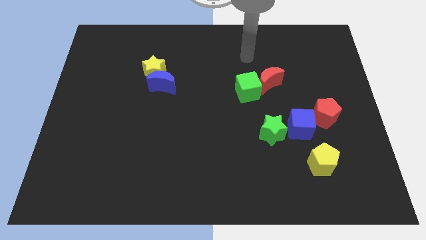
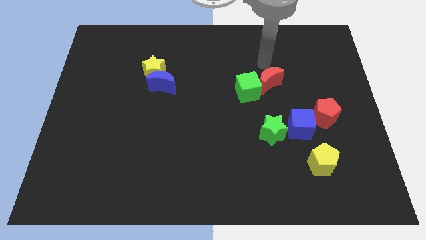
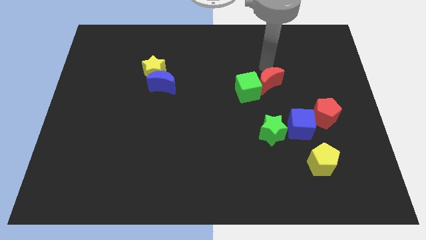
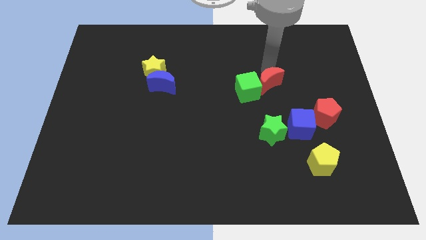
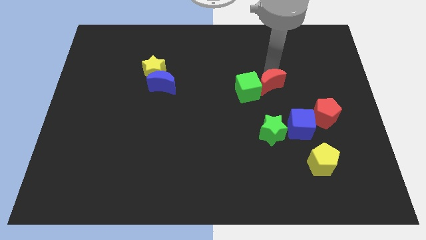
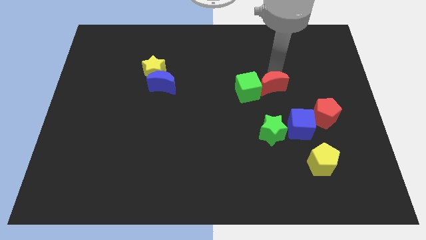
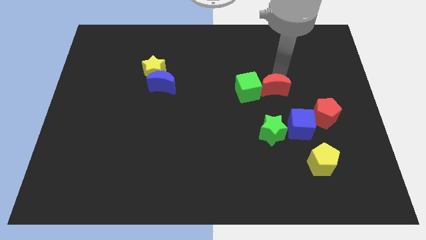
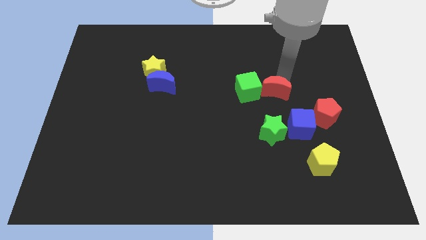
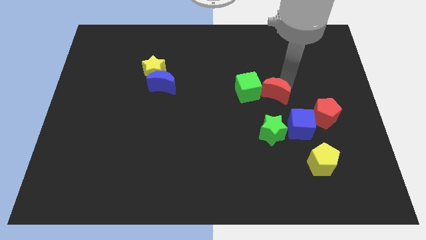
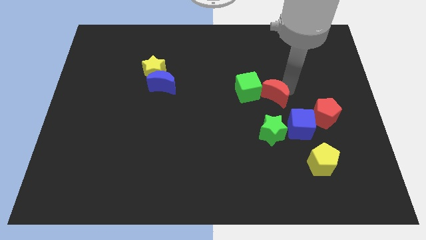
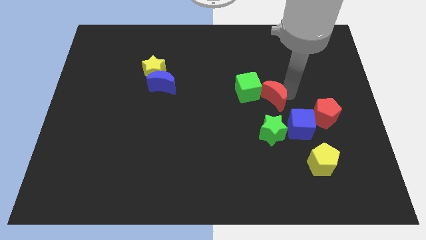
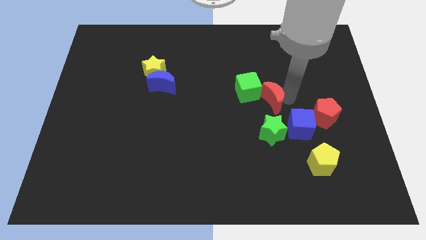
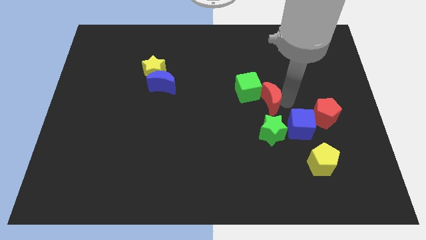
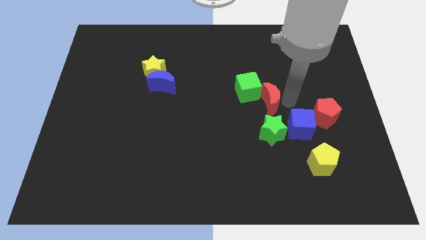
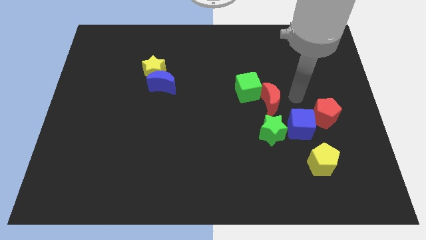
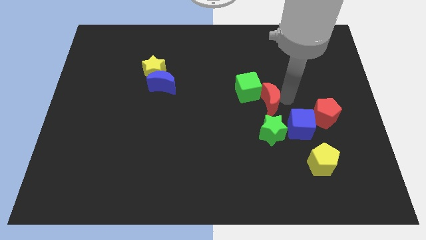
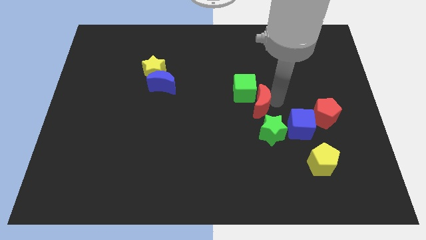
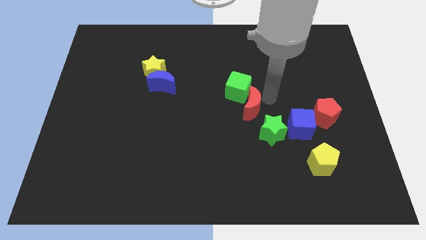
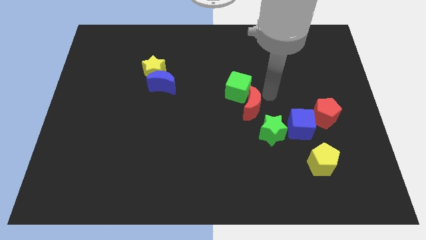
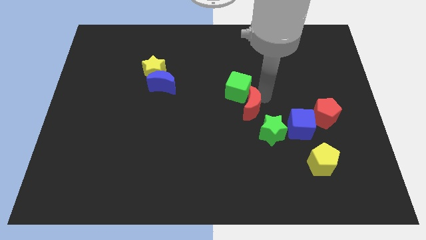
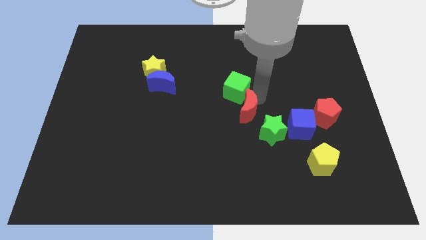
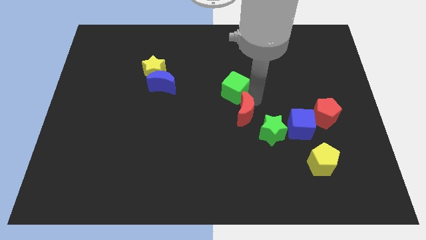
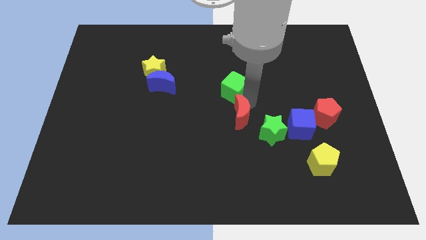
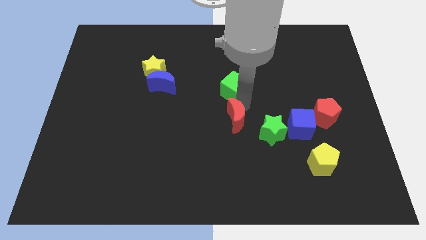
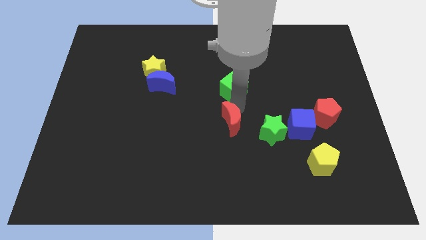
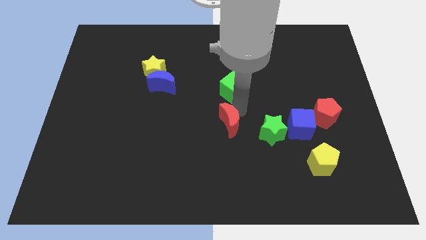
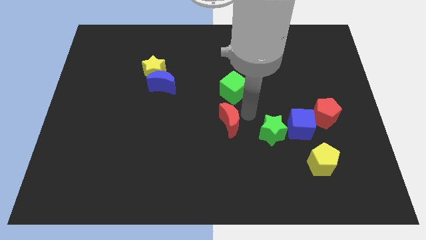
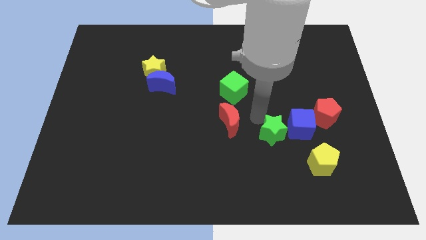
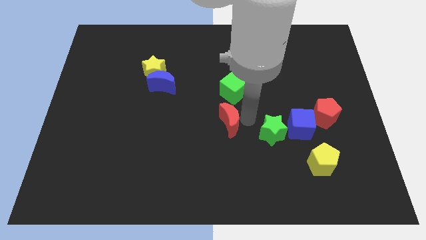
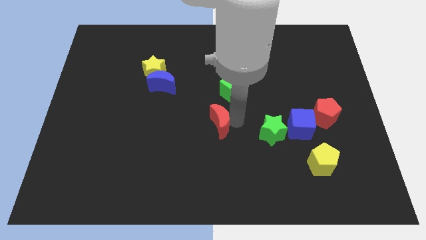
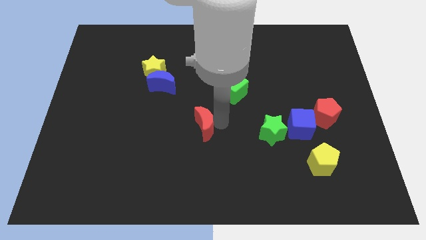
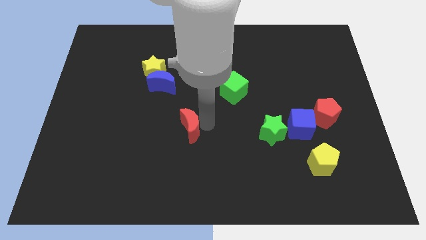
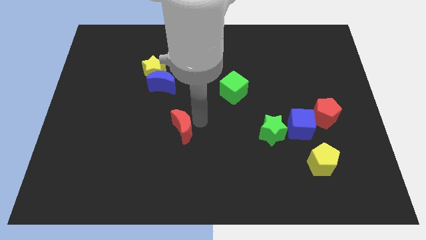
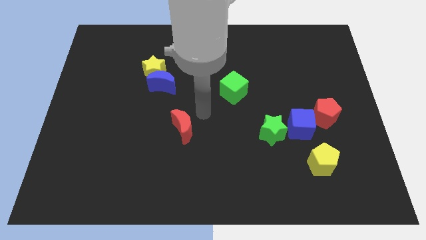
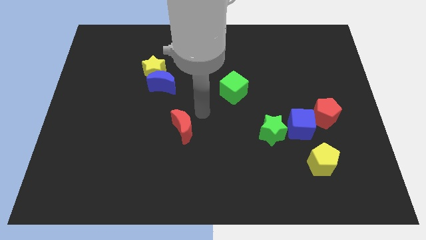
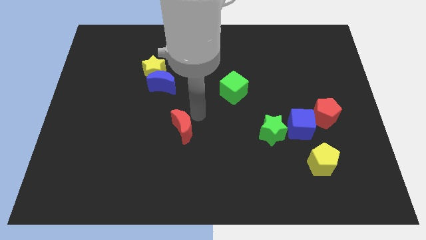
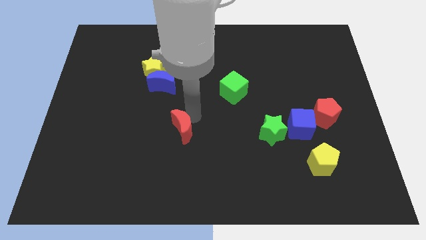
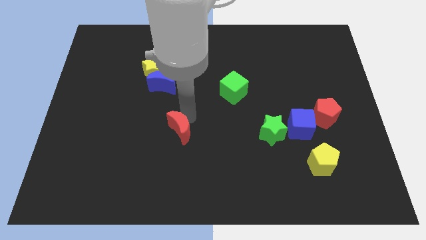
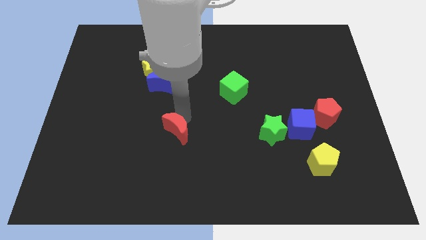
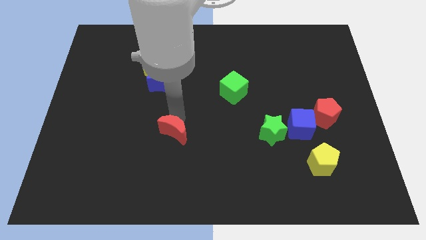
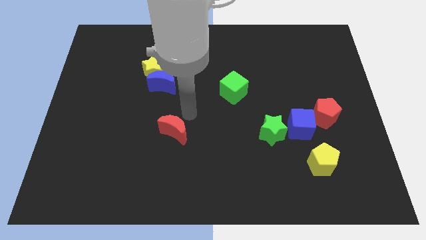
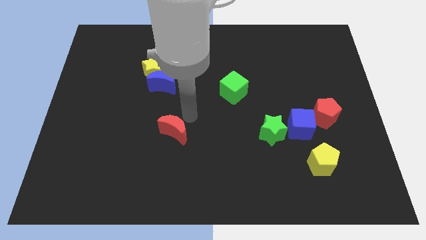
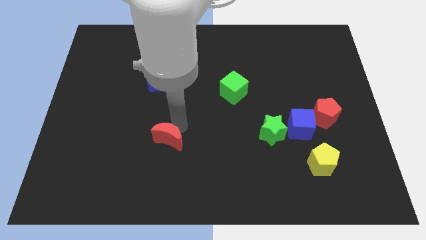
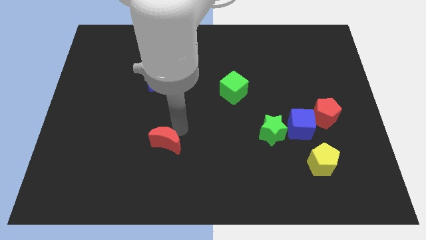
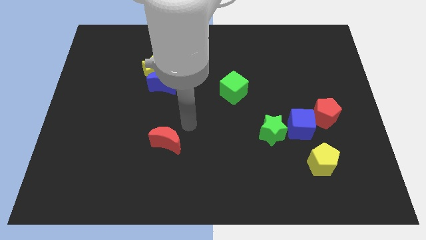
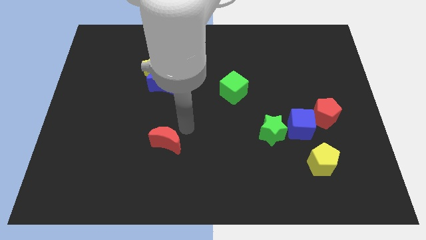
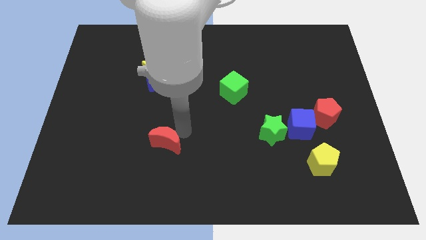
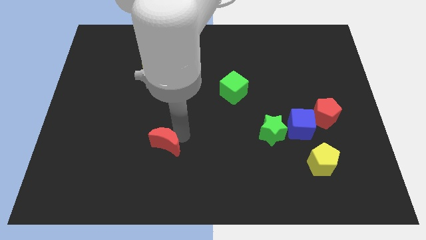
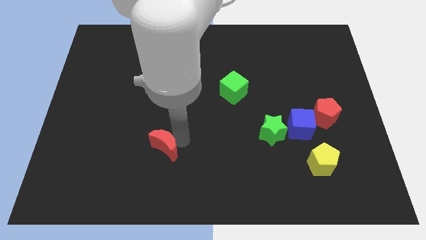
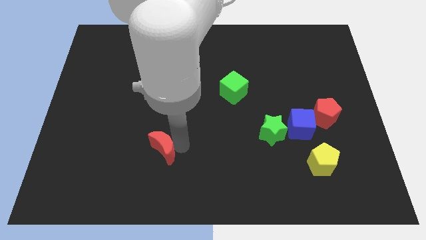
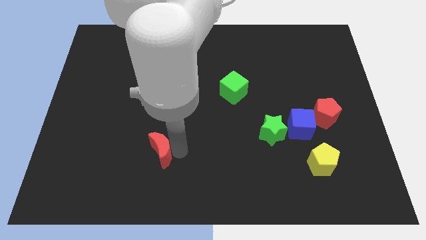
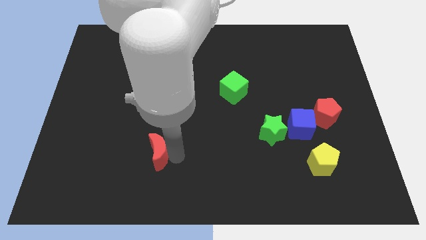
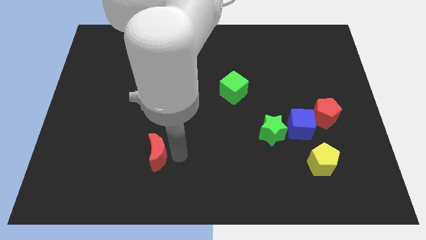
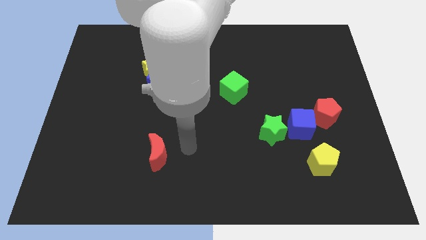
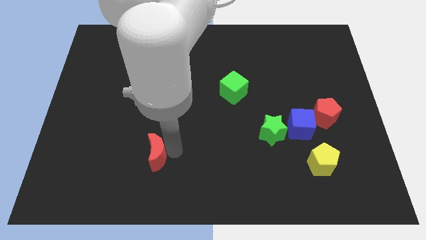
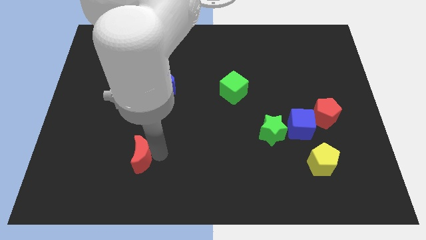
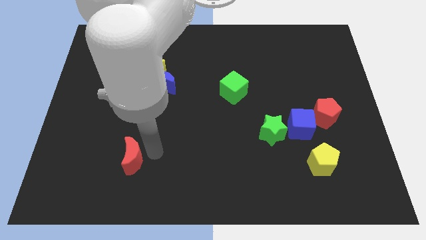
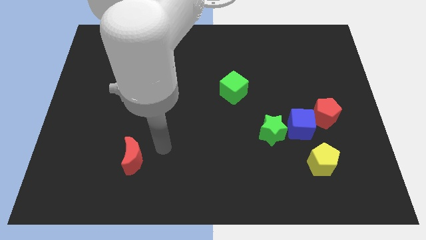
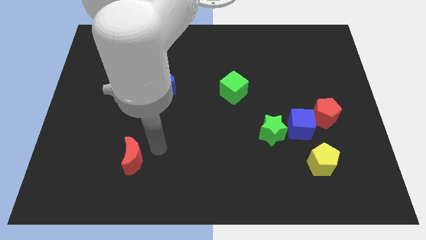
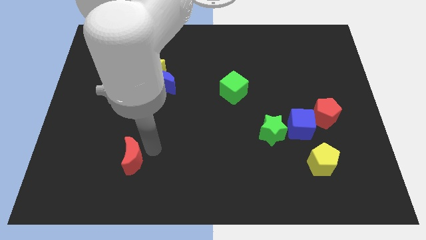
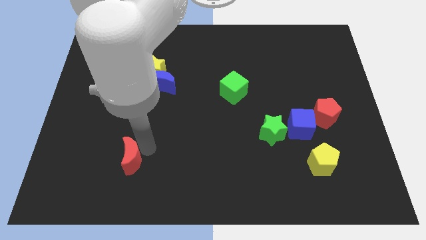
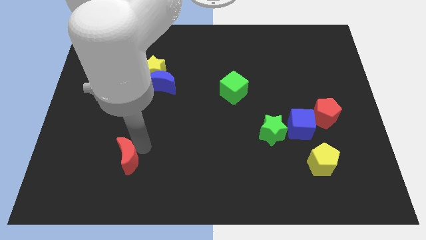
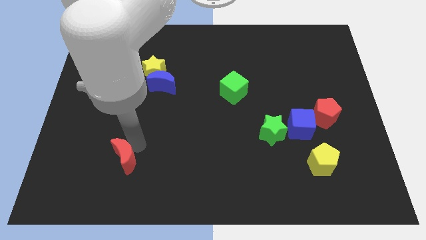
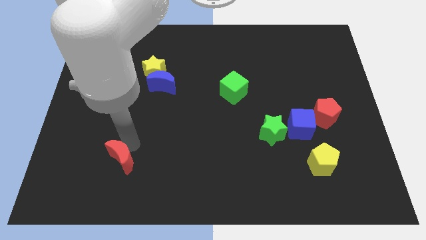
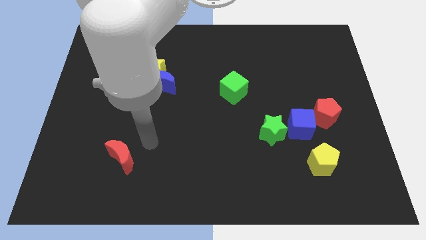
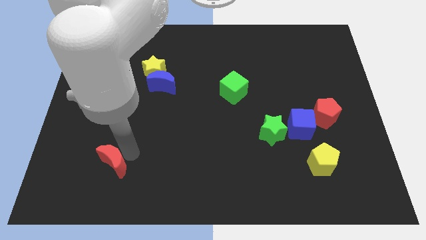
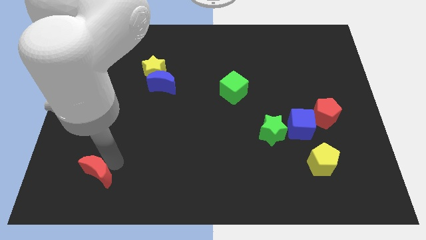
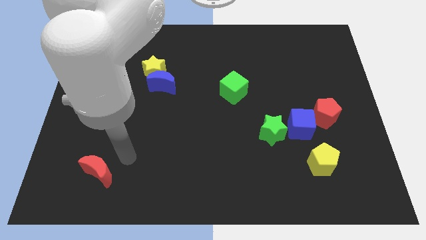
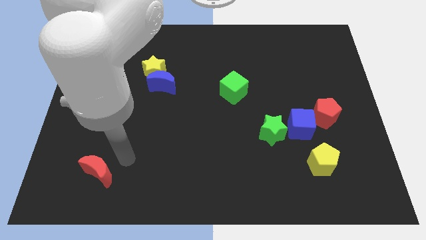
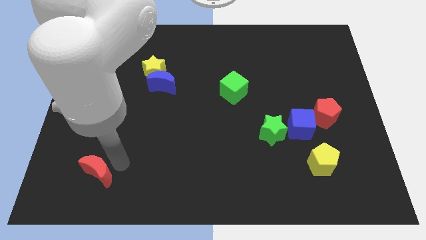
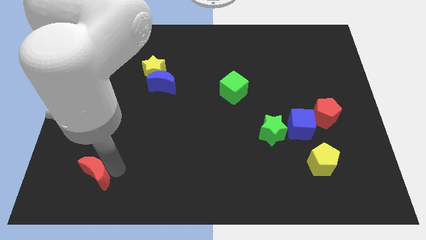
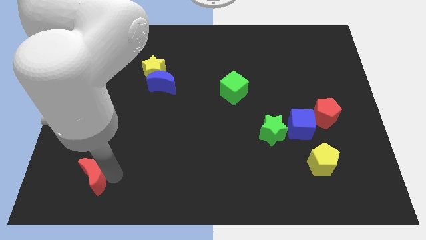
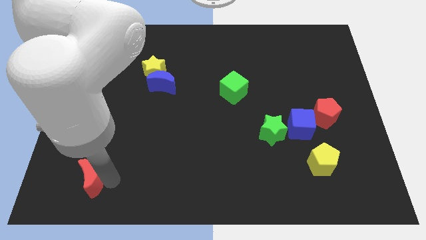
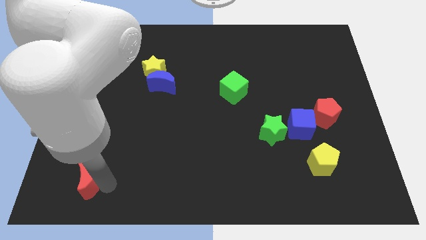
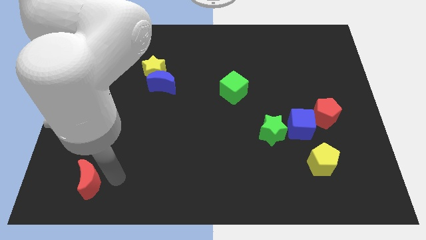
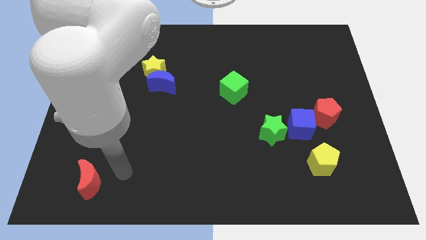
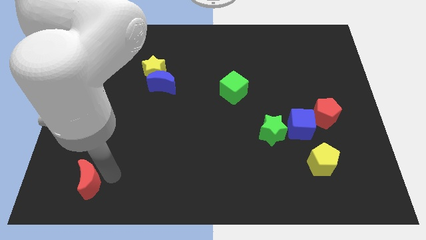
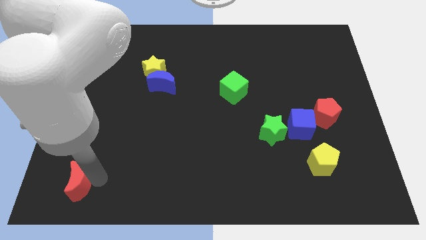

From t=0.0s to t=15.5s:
slide the red moon to the bottom left of the board

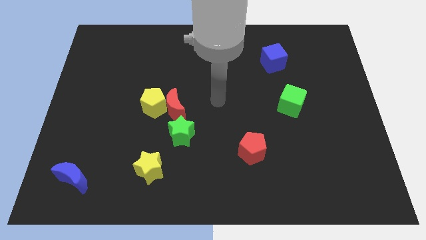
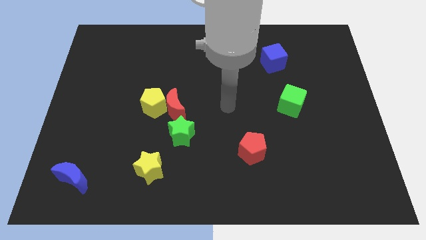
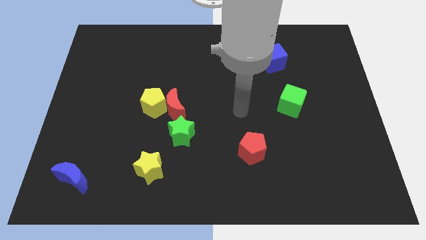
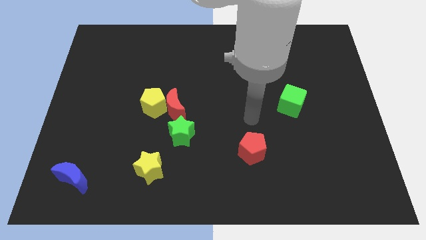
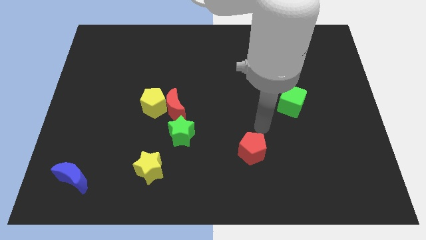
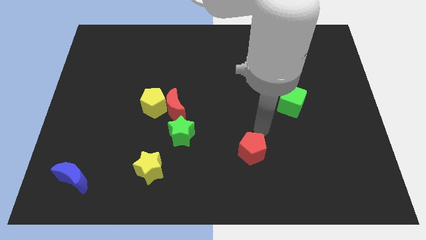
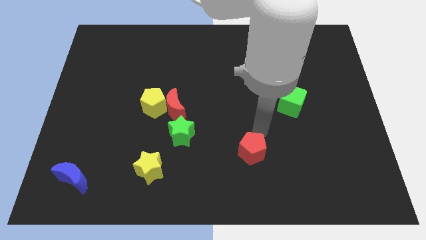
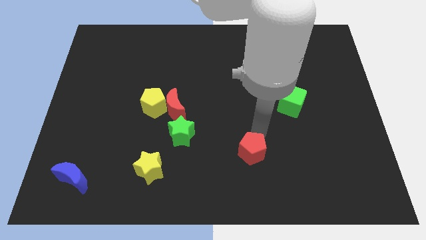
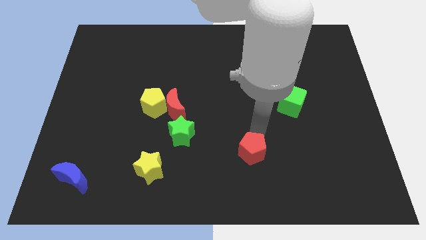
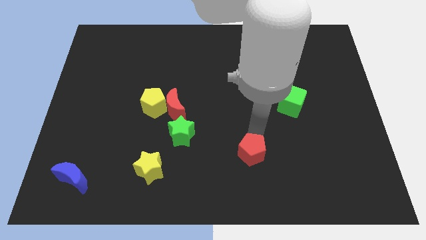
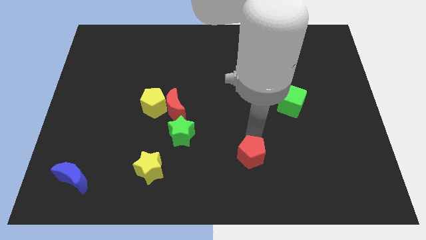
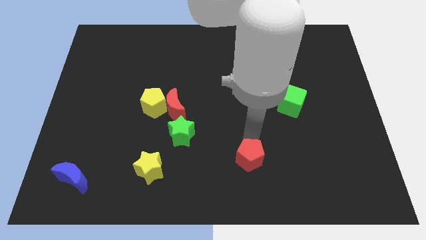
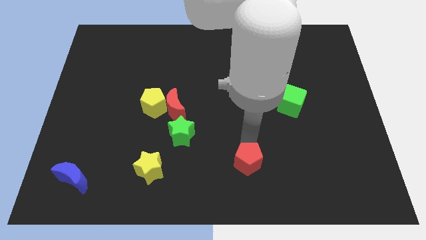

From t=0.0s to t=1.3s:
put the red pentagon to the bottom
